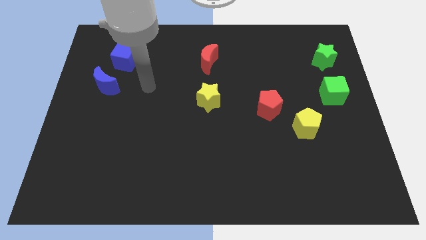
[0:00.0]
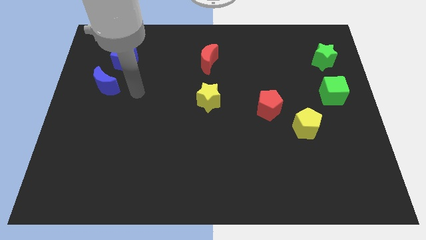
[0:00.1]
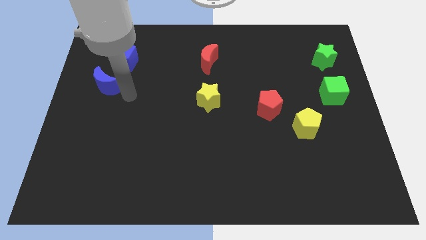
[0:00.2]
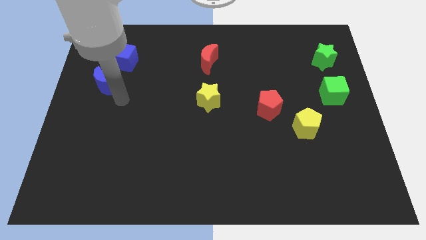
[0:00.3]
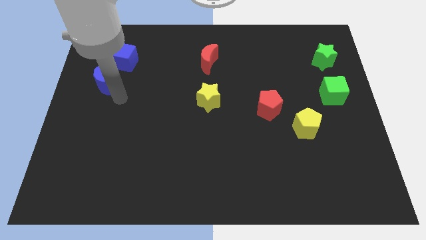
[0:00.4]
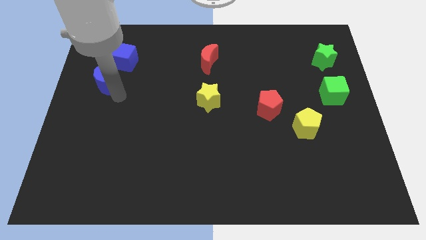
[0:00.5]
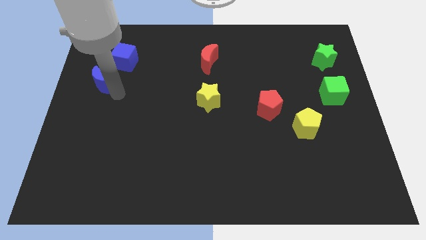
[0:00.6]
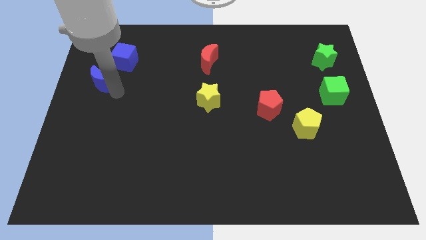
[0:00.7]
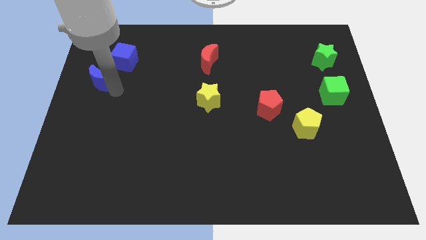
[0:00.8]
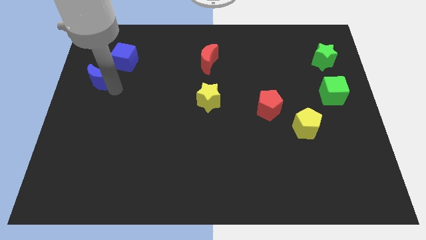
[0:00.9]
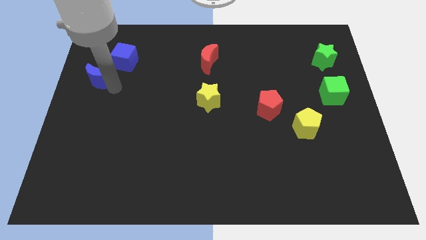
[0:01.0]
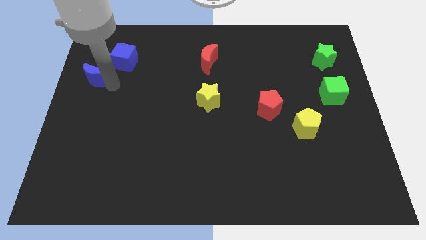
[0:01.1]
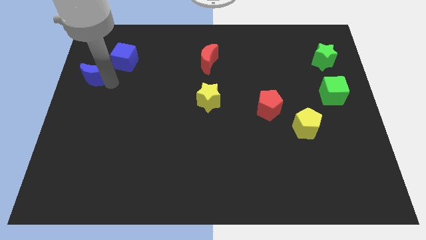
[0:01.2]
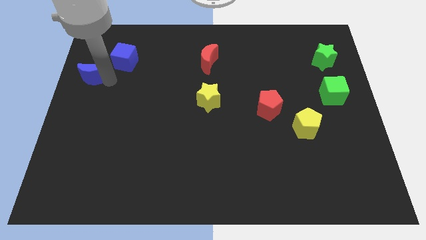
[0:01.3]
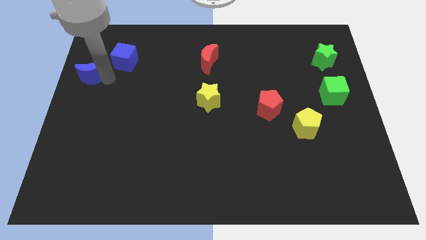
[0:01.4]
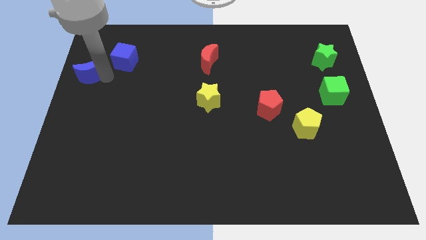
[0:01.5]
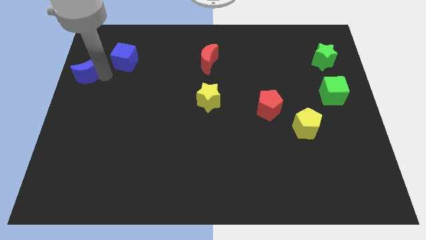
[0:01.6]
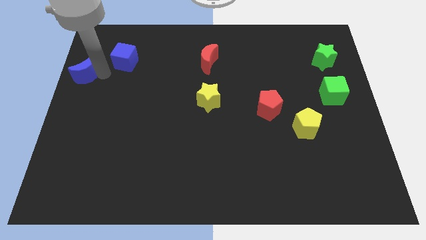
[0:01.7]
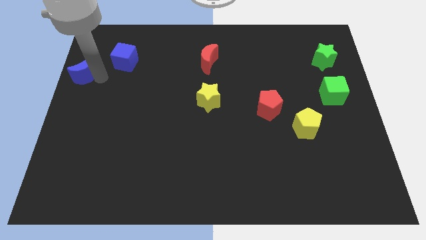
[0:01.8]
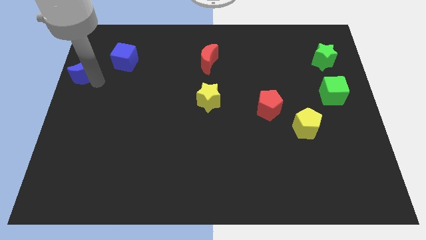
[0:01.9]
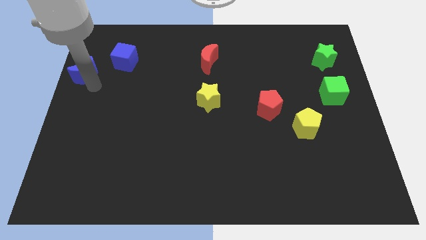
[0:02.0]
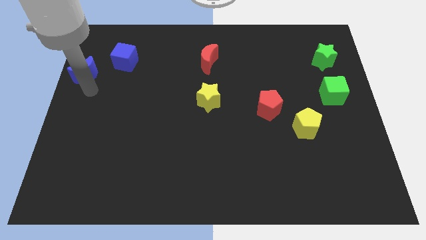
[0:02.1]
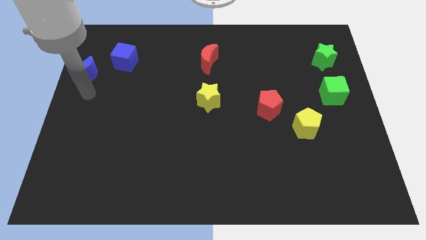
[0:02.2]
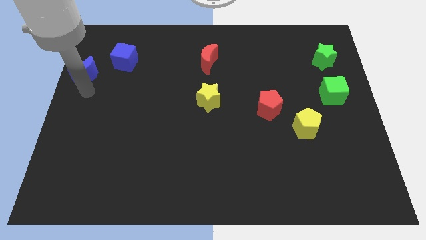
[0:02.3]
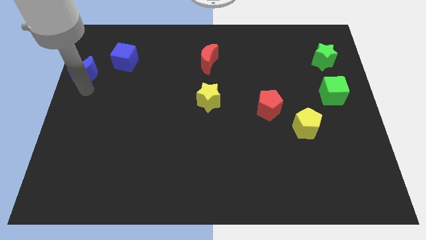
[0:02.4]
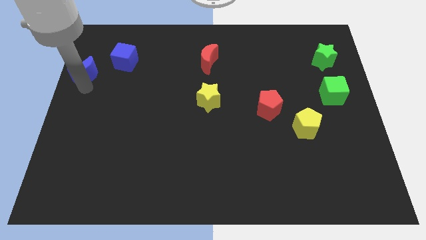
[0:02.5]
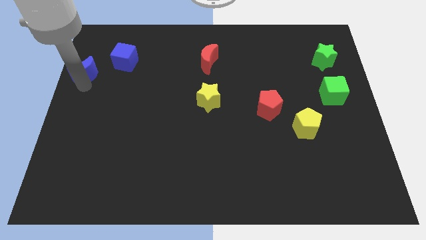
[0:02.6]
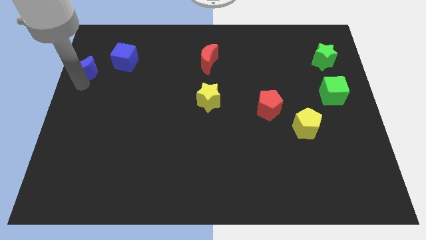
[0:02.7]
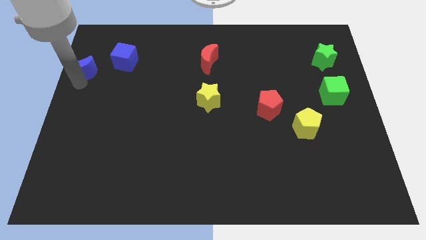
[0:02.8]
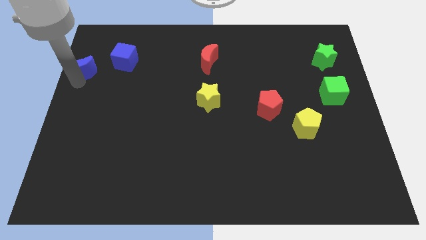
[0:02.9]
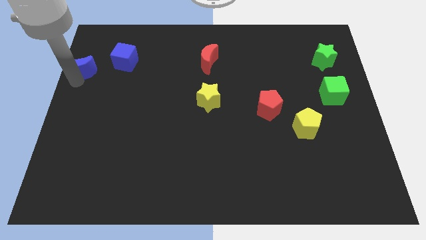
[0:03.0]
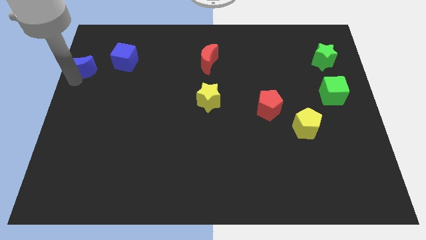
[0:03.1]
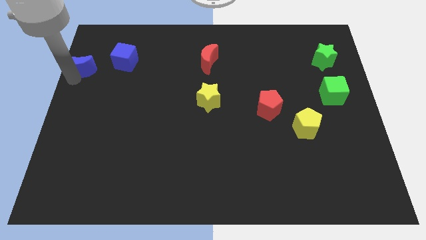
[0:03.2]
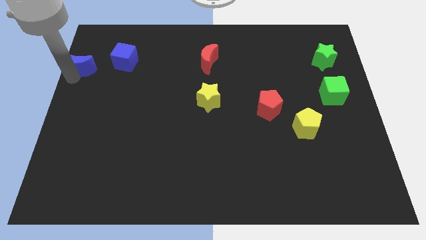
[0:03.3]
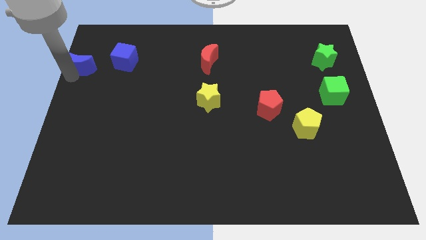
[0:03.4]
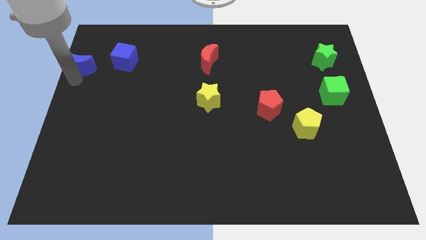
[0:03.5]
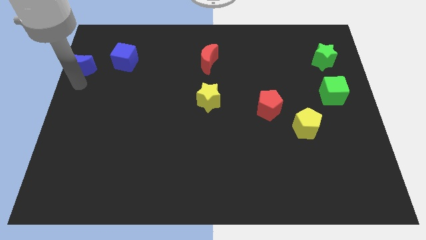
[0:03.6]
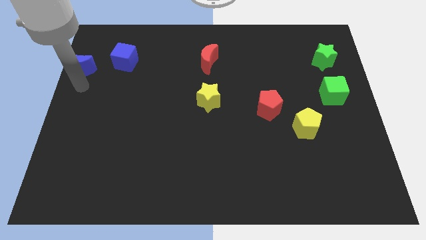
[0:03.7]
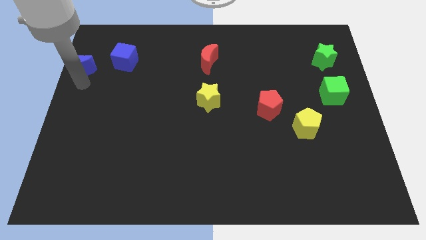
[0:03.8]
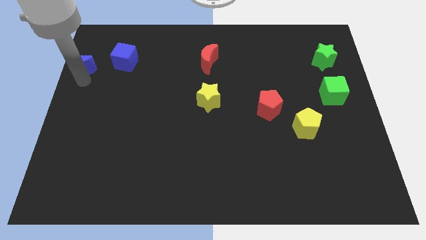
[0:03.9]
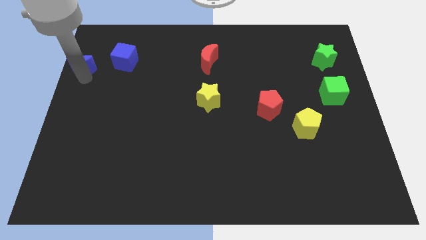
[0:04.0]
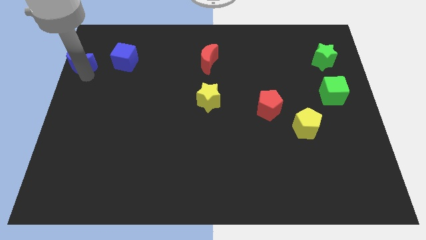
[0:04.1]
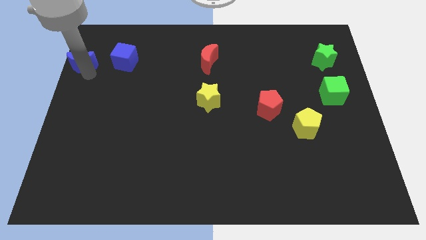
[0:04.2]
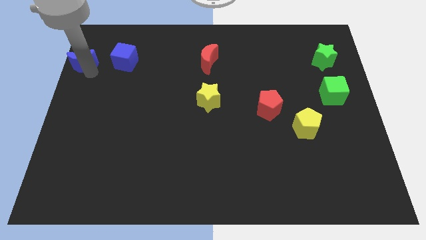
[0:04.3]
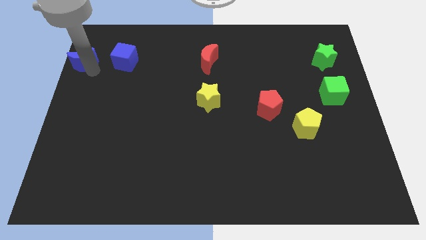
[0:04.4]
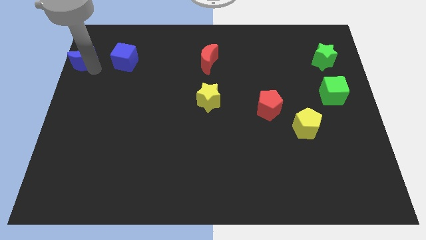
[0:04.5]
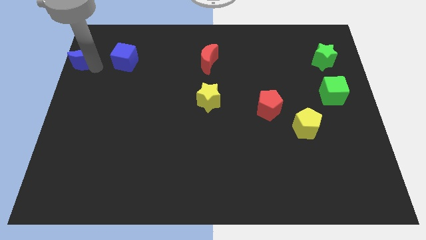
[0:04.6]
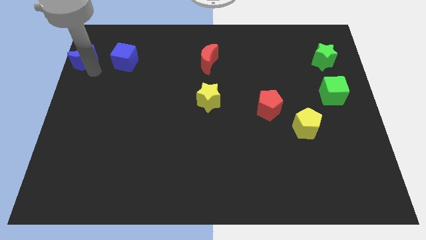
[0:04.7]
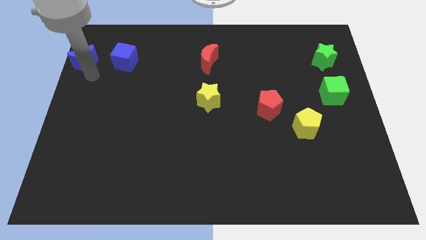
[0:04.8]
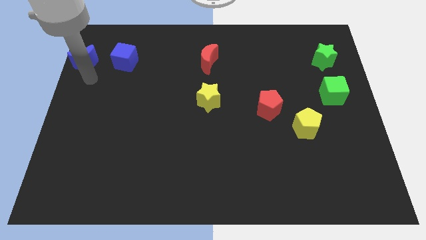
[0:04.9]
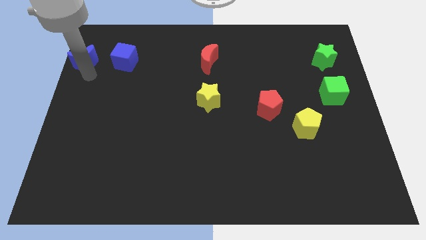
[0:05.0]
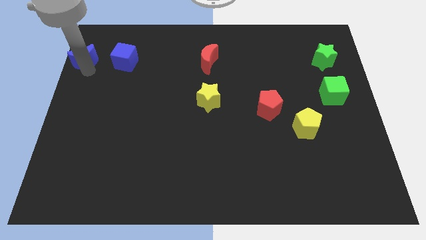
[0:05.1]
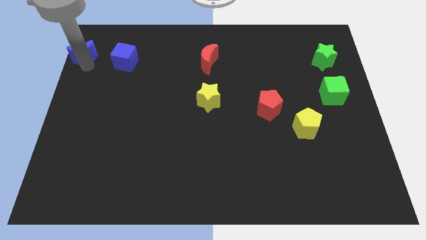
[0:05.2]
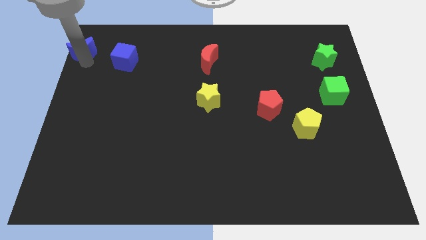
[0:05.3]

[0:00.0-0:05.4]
push the blue moon to the upper left corner
